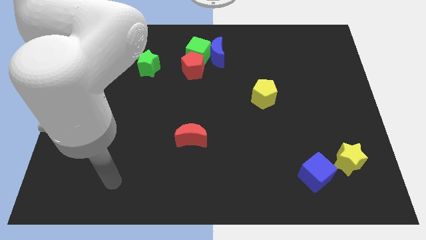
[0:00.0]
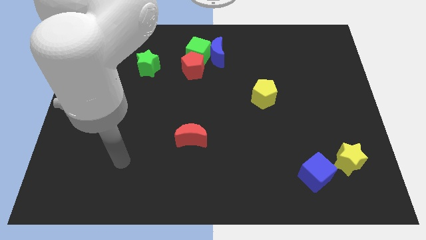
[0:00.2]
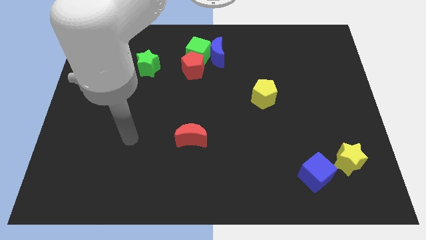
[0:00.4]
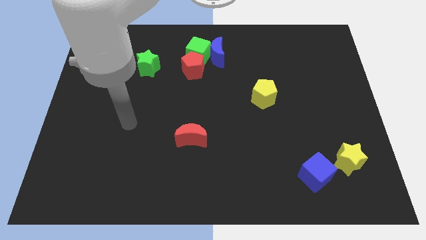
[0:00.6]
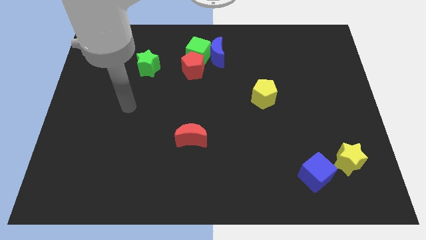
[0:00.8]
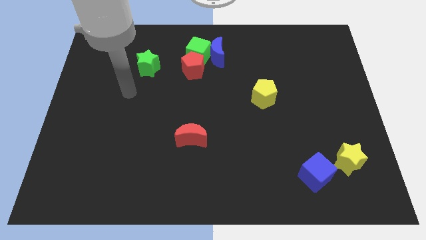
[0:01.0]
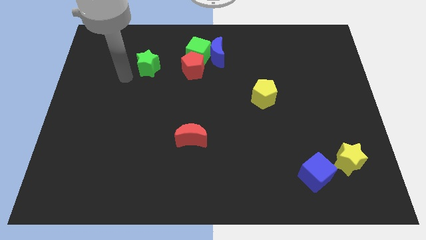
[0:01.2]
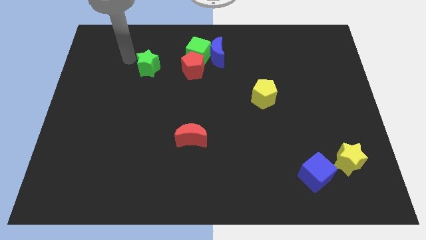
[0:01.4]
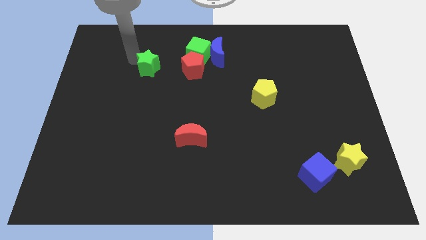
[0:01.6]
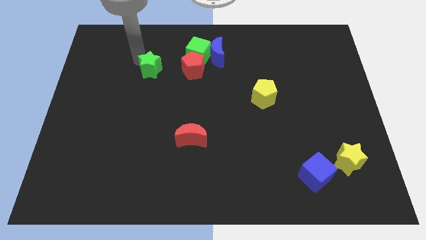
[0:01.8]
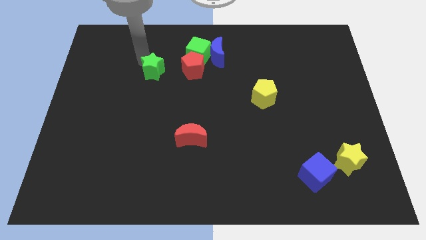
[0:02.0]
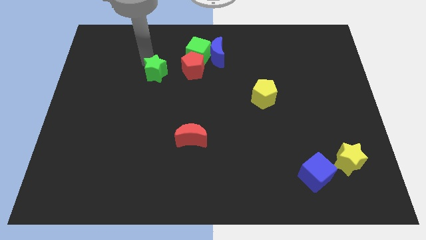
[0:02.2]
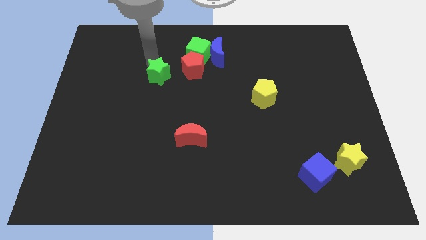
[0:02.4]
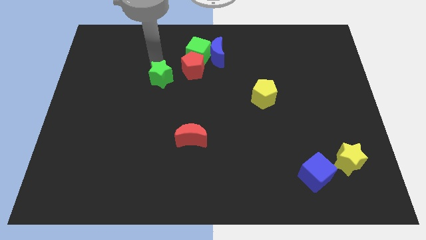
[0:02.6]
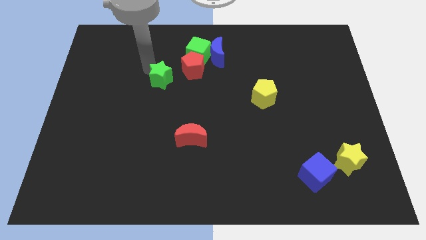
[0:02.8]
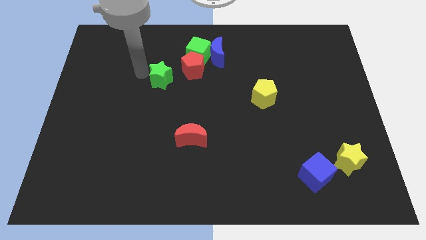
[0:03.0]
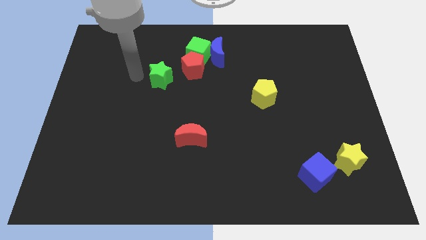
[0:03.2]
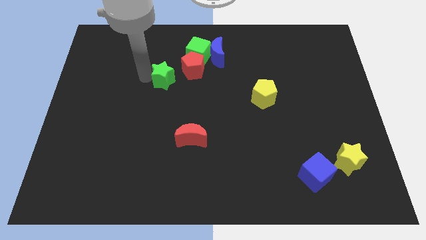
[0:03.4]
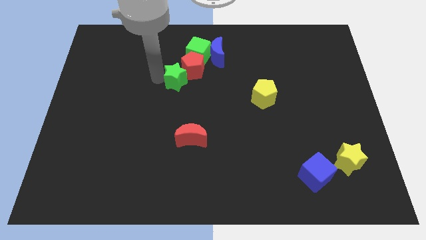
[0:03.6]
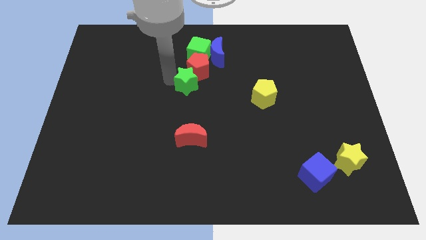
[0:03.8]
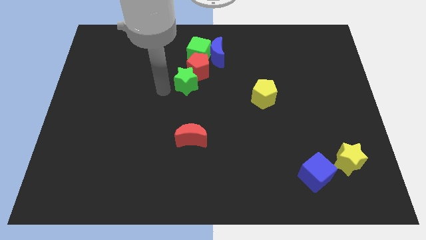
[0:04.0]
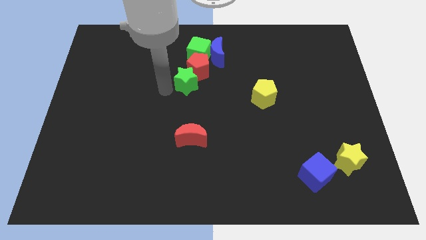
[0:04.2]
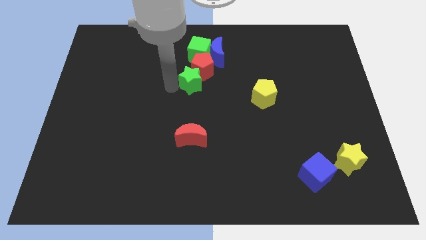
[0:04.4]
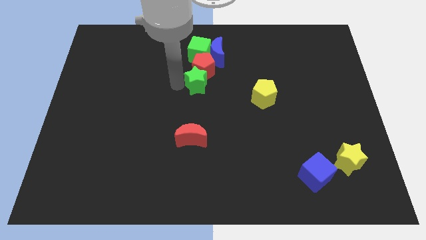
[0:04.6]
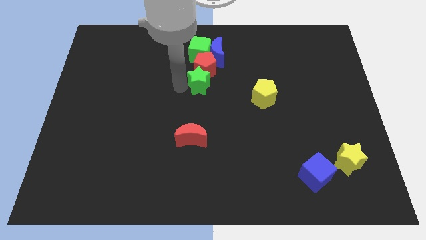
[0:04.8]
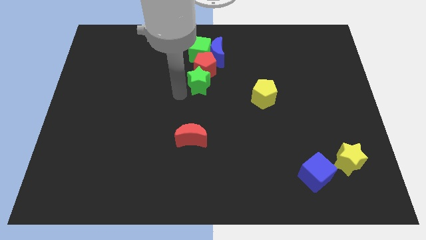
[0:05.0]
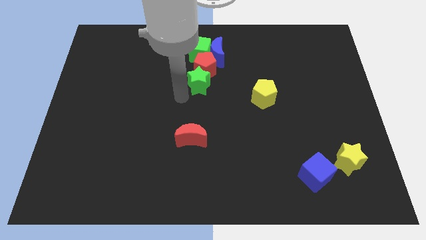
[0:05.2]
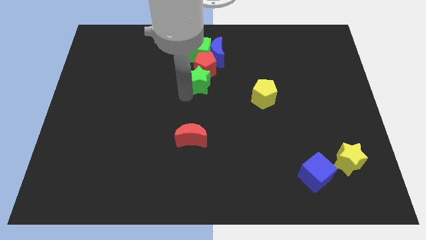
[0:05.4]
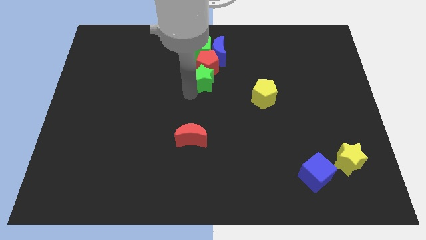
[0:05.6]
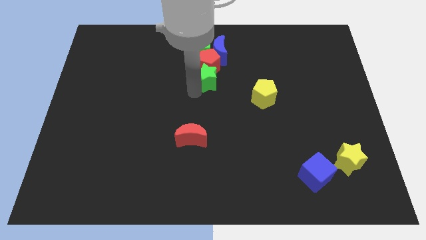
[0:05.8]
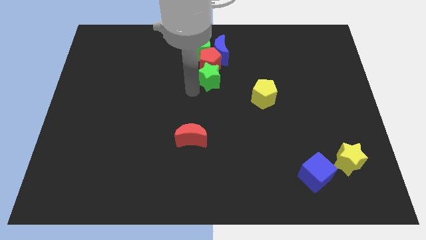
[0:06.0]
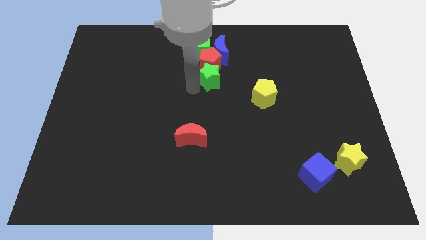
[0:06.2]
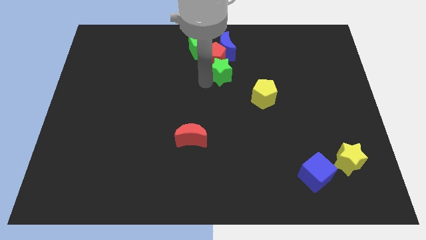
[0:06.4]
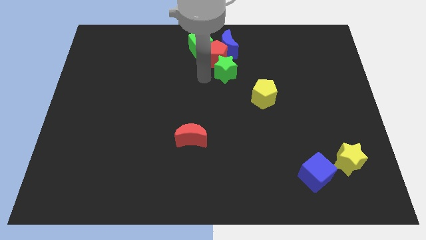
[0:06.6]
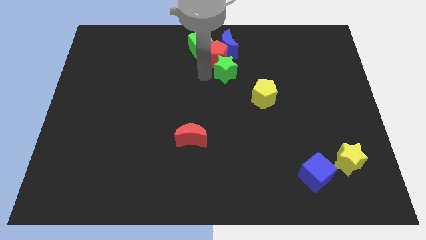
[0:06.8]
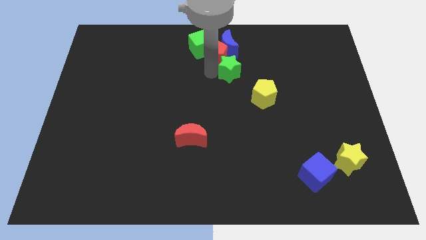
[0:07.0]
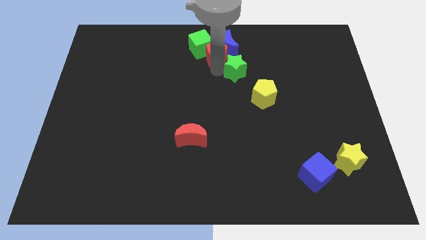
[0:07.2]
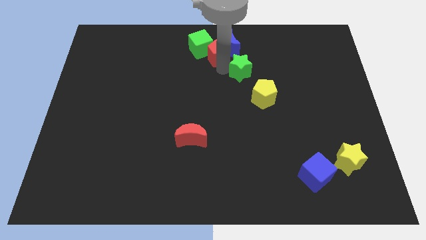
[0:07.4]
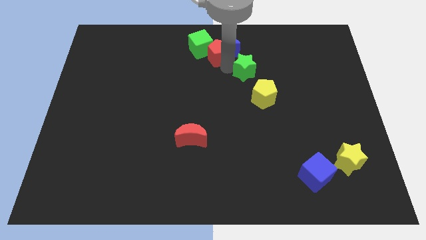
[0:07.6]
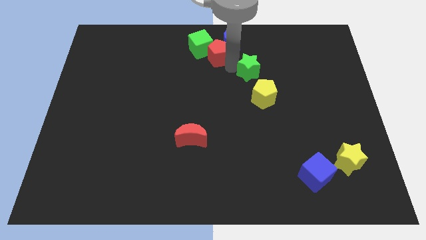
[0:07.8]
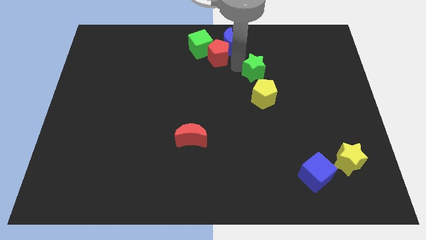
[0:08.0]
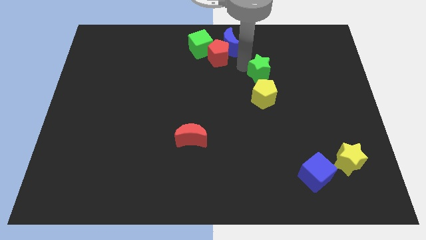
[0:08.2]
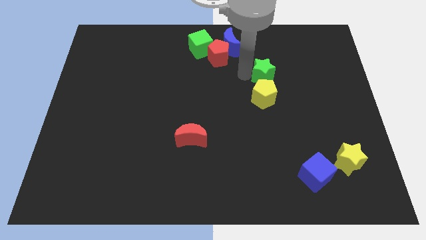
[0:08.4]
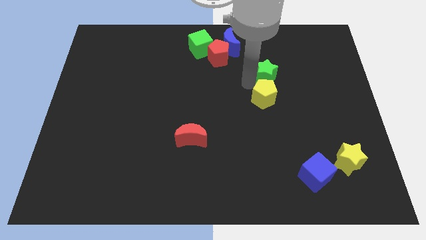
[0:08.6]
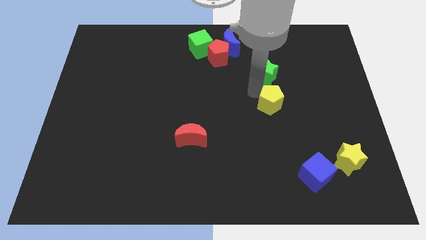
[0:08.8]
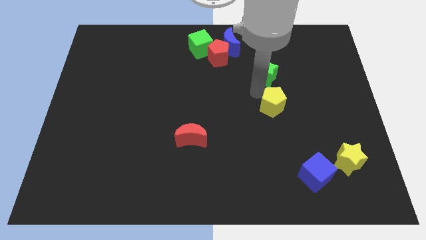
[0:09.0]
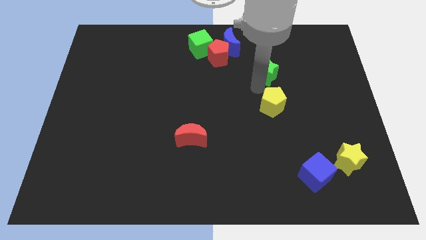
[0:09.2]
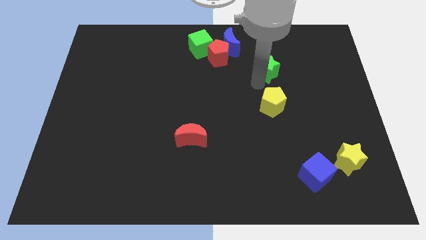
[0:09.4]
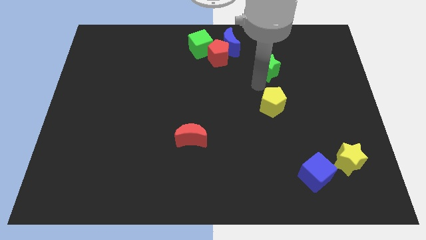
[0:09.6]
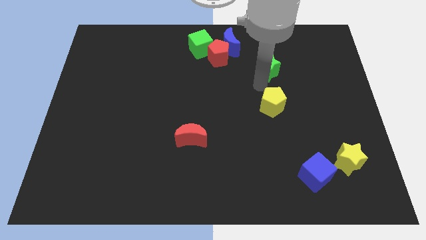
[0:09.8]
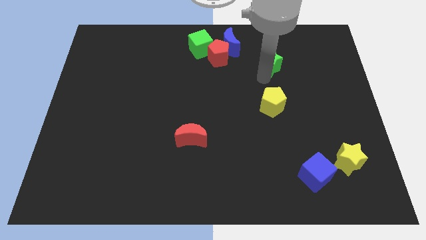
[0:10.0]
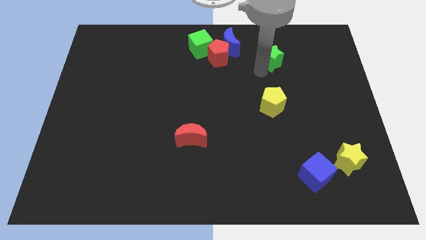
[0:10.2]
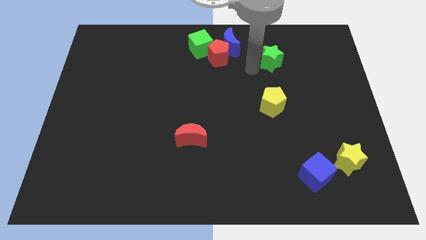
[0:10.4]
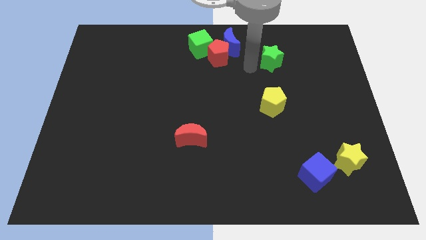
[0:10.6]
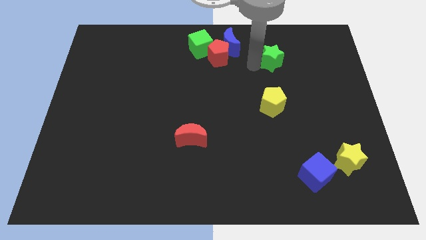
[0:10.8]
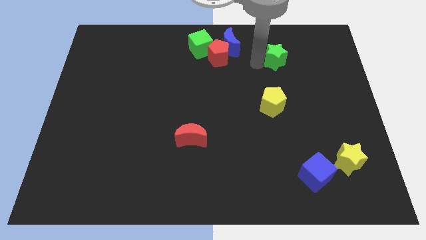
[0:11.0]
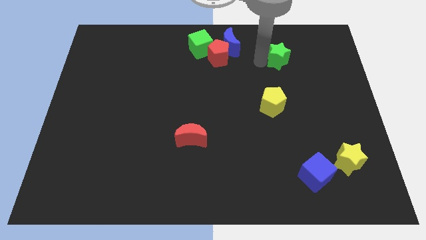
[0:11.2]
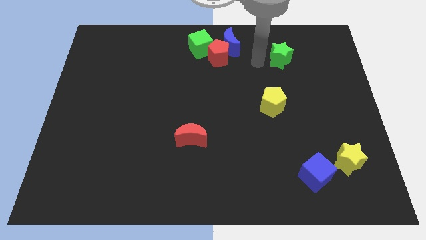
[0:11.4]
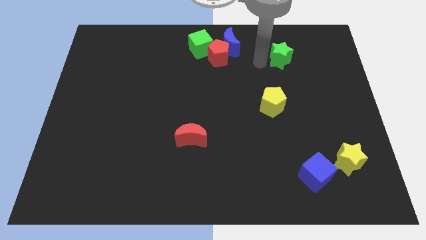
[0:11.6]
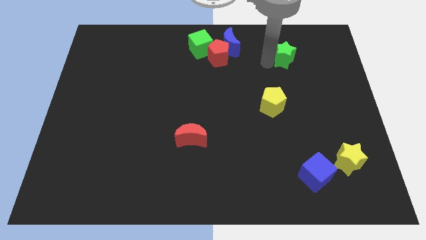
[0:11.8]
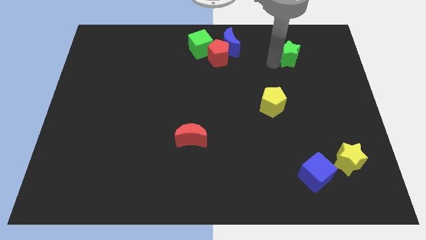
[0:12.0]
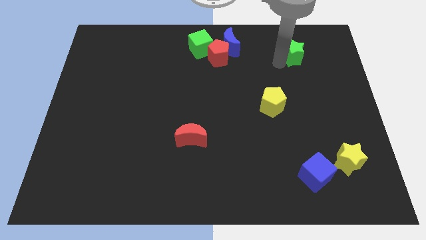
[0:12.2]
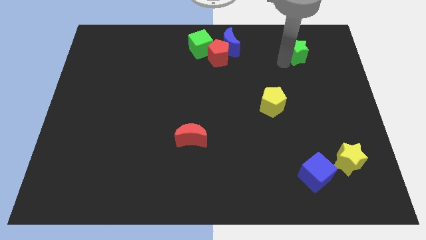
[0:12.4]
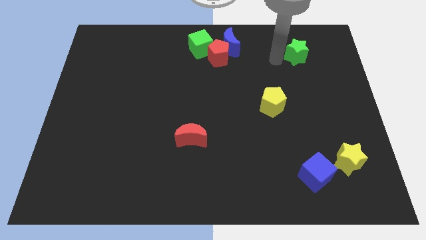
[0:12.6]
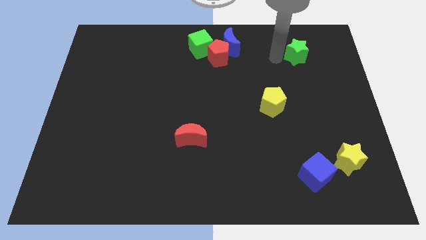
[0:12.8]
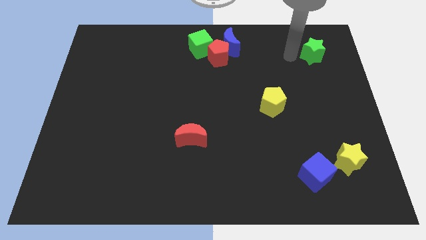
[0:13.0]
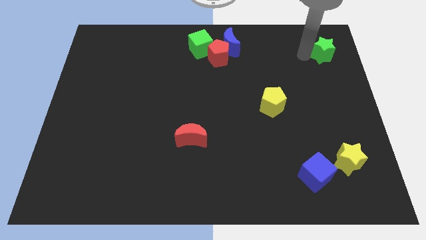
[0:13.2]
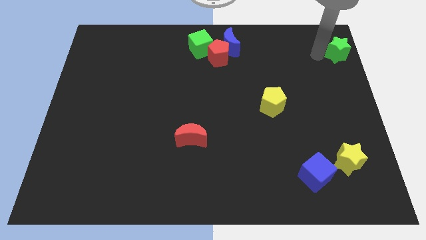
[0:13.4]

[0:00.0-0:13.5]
move the green star to the top right of the board
